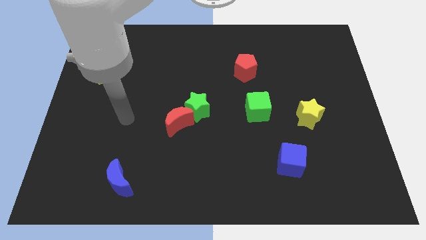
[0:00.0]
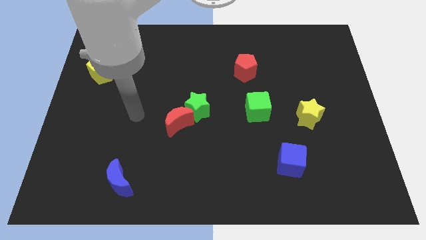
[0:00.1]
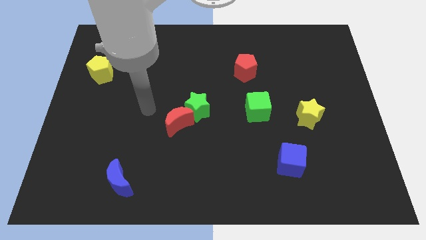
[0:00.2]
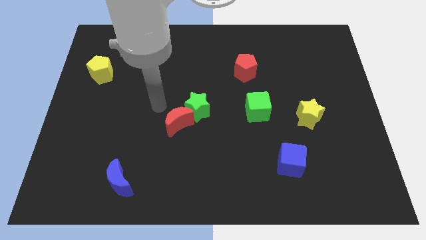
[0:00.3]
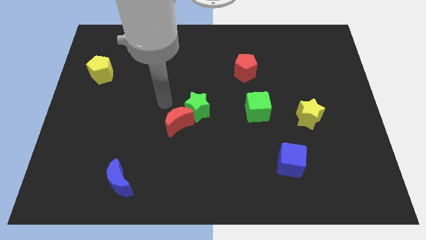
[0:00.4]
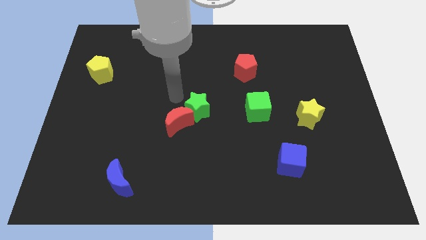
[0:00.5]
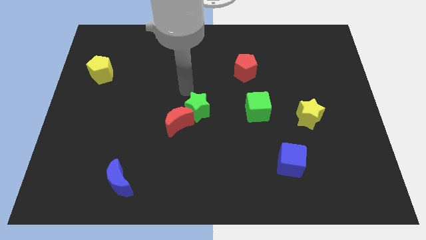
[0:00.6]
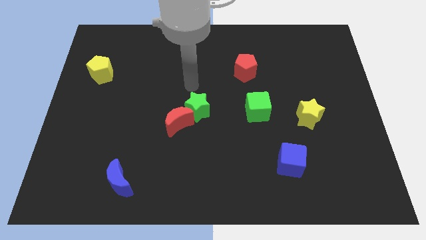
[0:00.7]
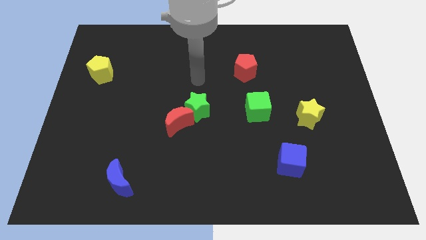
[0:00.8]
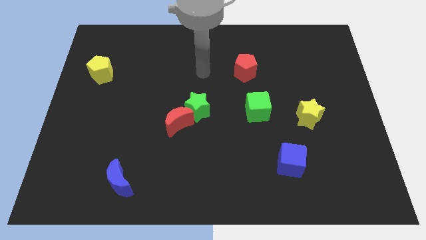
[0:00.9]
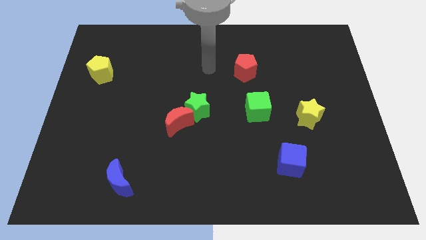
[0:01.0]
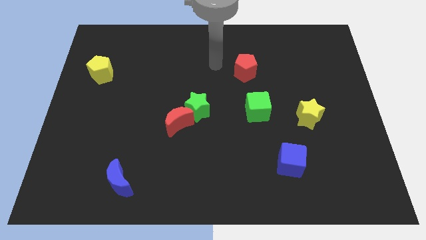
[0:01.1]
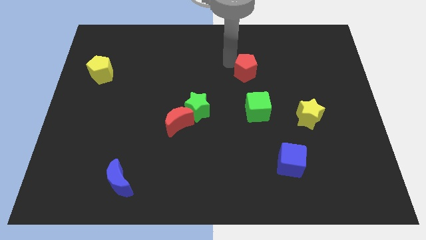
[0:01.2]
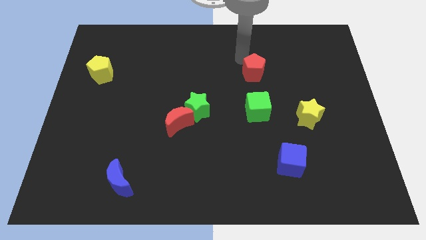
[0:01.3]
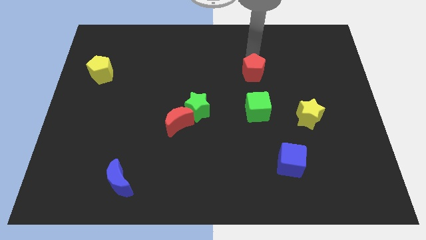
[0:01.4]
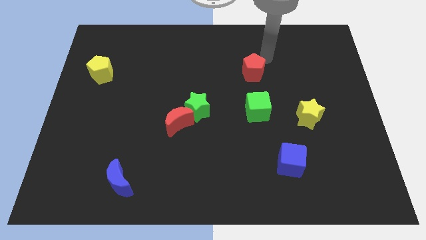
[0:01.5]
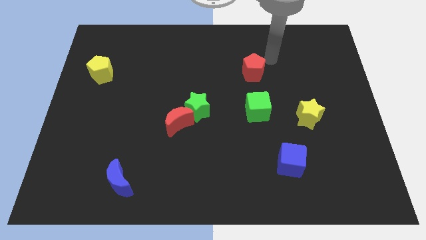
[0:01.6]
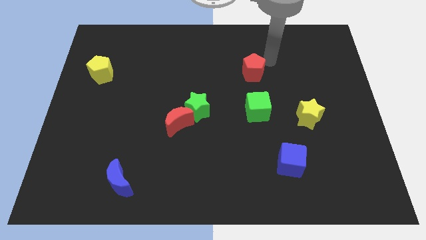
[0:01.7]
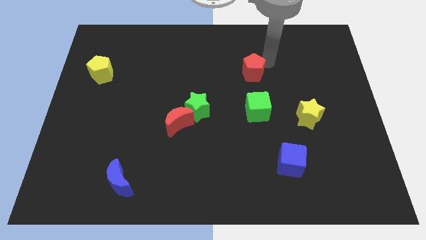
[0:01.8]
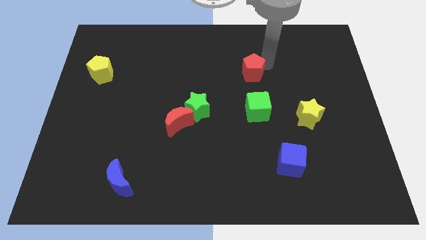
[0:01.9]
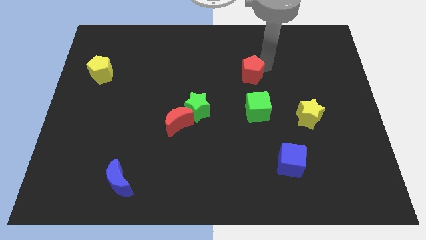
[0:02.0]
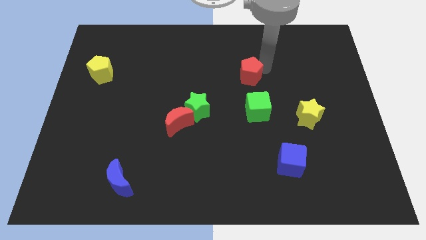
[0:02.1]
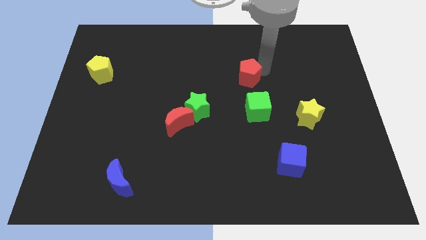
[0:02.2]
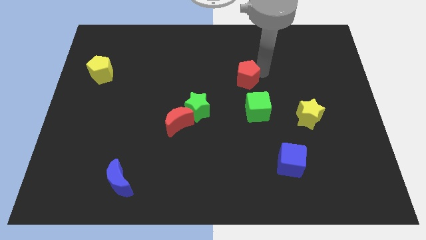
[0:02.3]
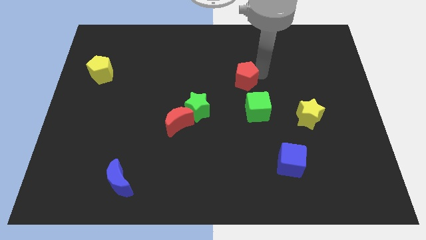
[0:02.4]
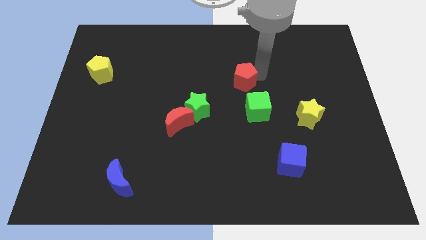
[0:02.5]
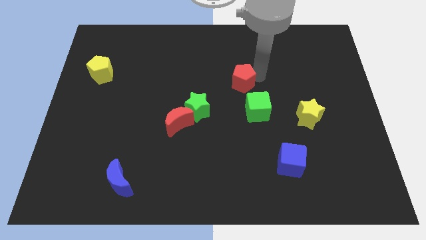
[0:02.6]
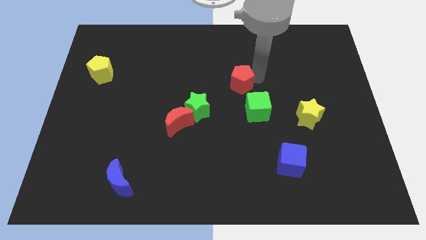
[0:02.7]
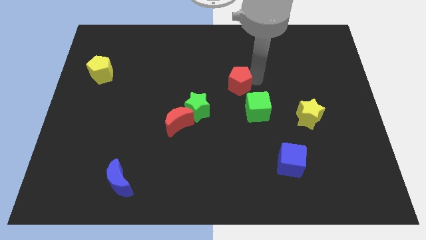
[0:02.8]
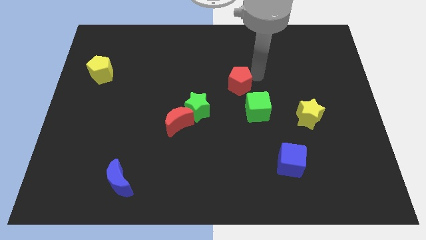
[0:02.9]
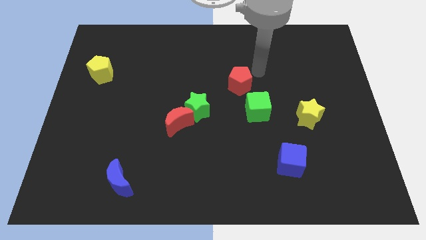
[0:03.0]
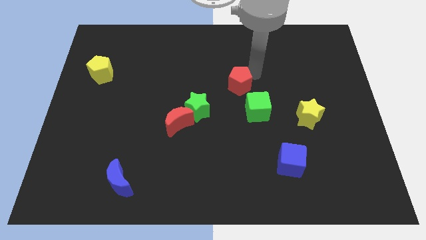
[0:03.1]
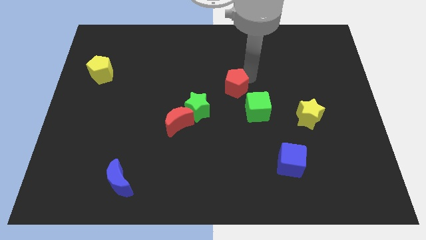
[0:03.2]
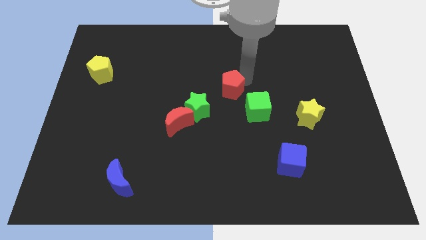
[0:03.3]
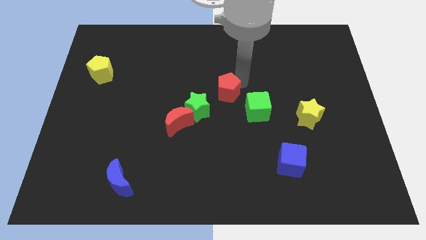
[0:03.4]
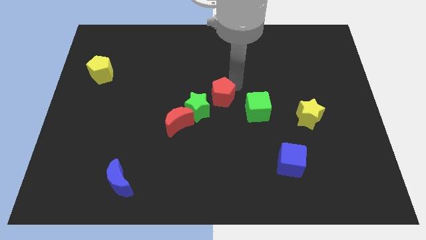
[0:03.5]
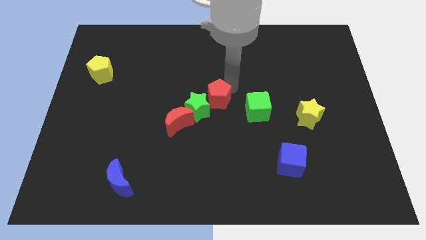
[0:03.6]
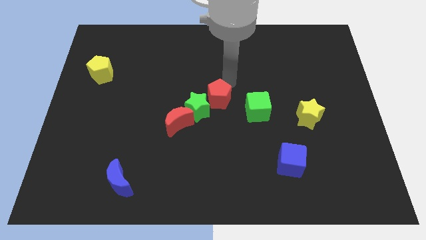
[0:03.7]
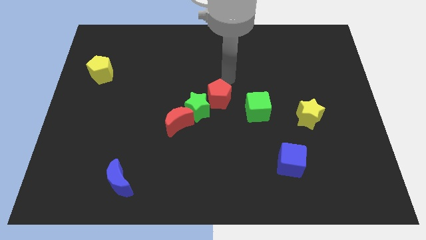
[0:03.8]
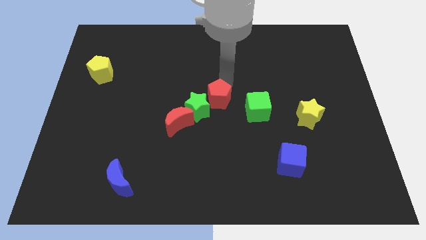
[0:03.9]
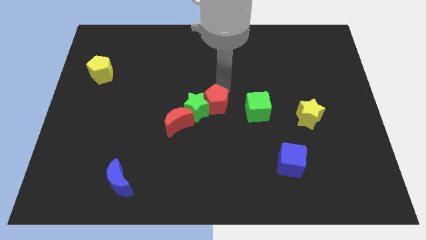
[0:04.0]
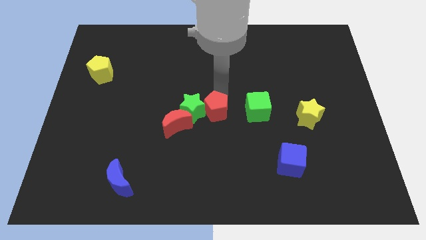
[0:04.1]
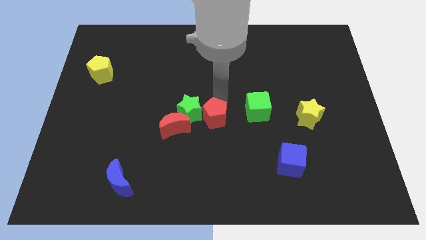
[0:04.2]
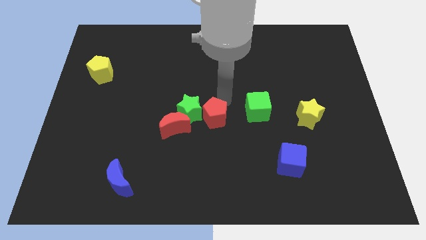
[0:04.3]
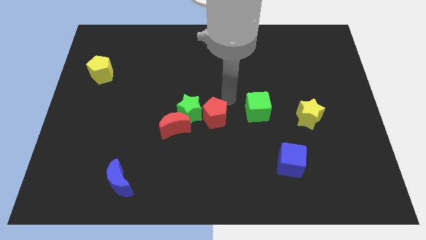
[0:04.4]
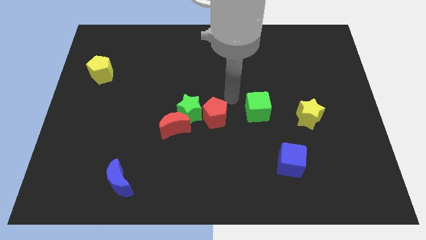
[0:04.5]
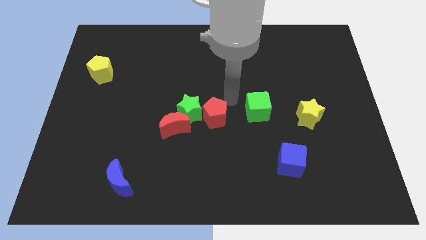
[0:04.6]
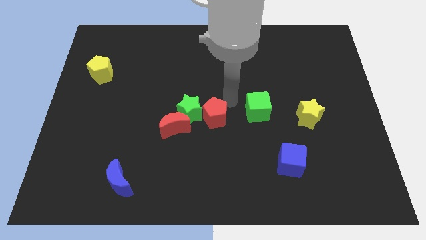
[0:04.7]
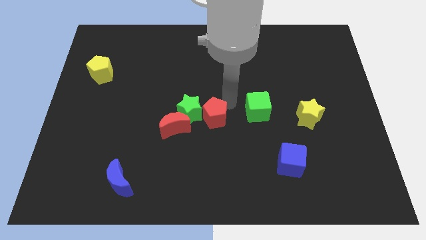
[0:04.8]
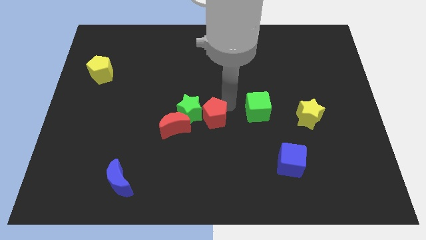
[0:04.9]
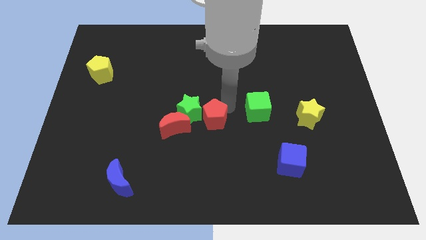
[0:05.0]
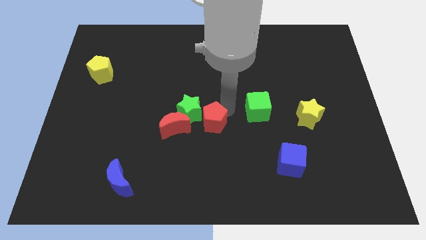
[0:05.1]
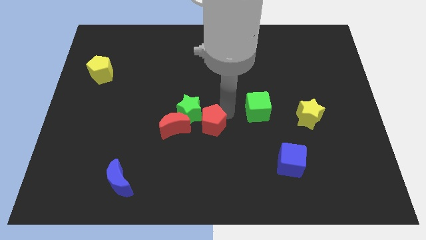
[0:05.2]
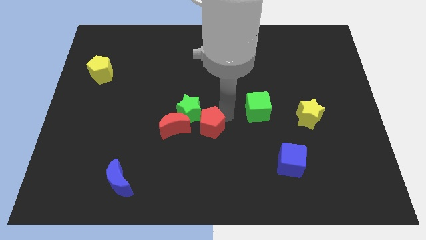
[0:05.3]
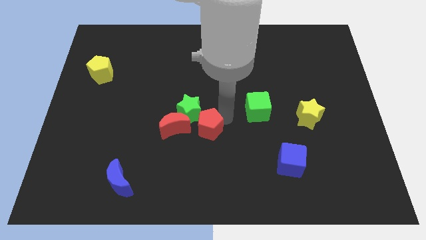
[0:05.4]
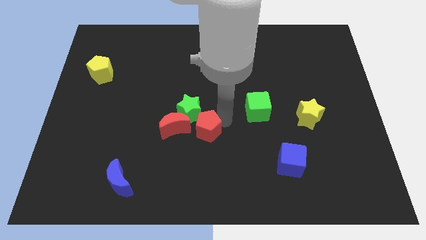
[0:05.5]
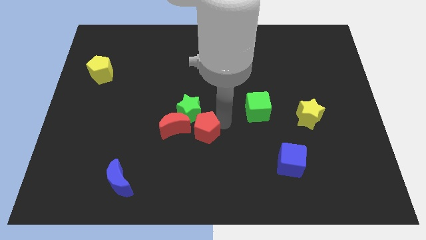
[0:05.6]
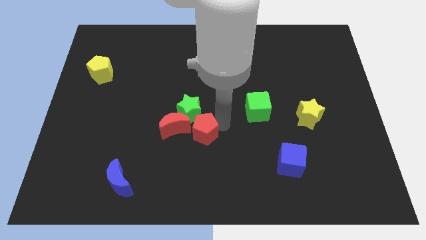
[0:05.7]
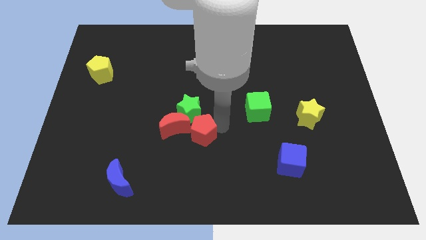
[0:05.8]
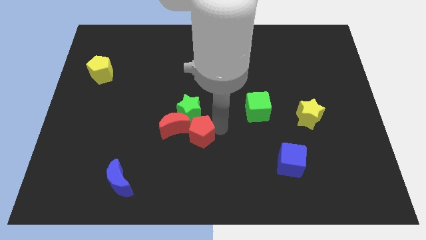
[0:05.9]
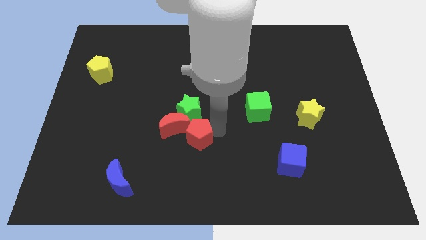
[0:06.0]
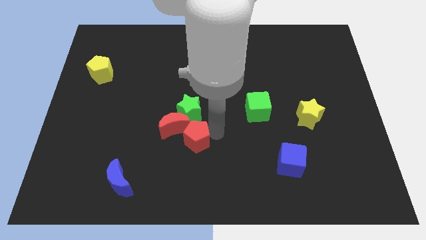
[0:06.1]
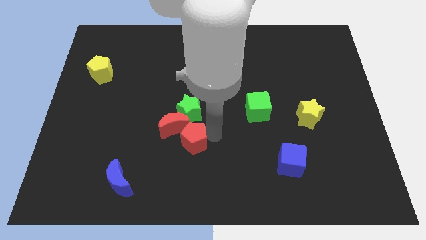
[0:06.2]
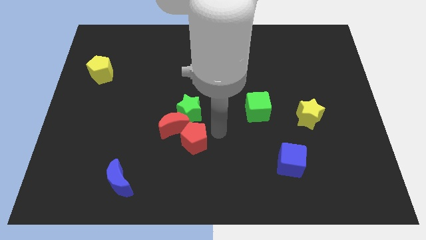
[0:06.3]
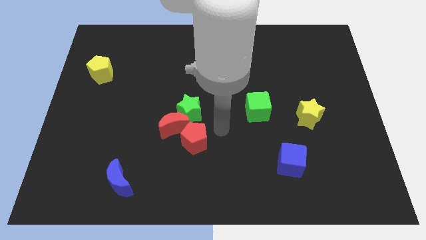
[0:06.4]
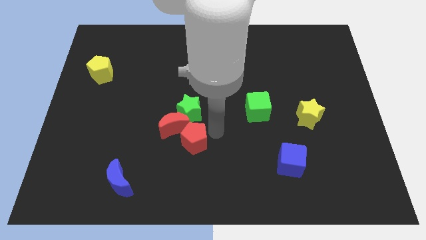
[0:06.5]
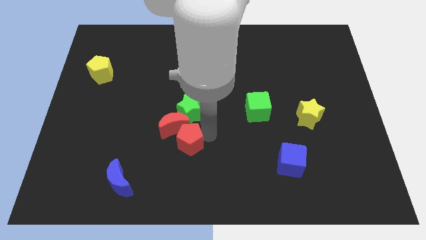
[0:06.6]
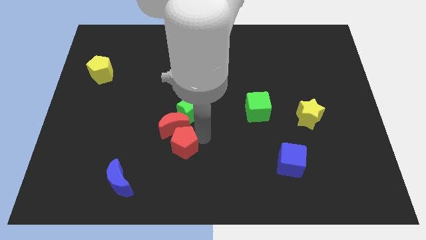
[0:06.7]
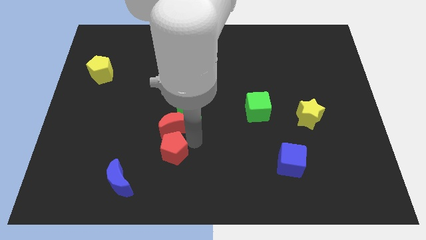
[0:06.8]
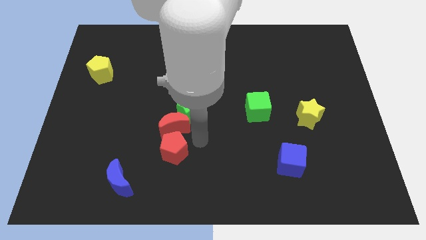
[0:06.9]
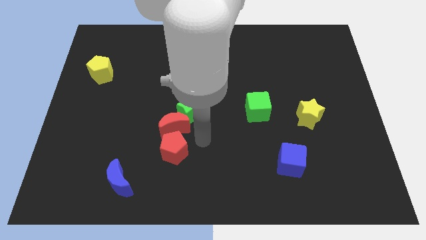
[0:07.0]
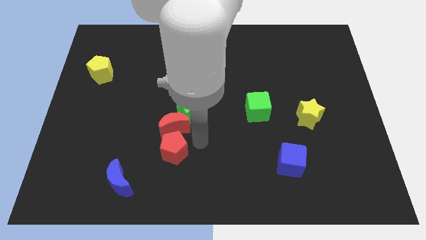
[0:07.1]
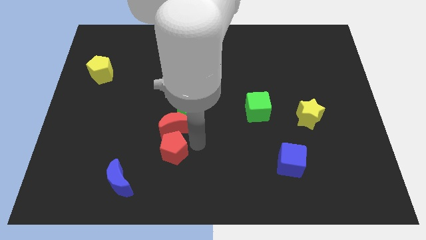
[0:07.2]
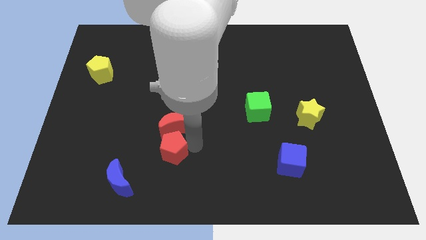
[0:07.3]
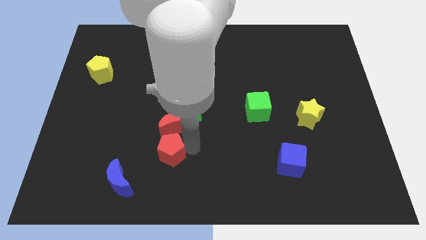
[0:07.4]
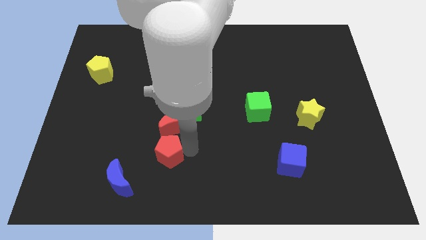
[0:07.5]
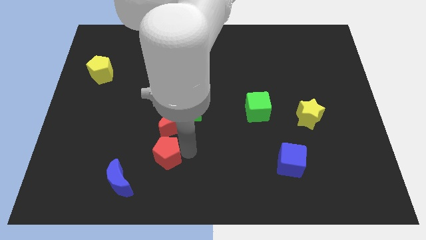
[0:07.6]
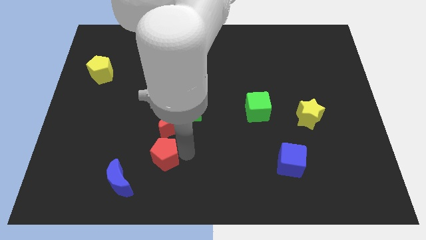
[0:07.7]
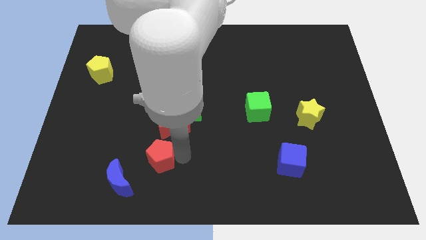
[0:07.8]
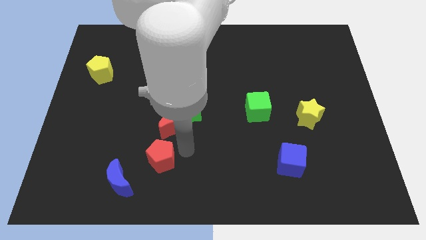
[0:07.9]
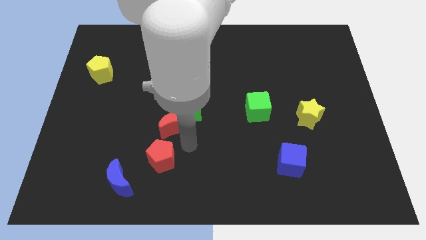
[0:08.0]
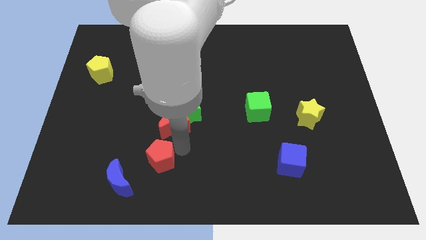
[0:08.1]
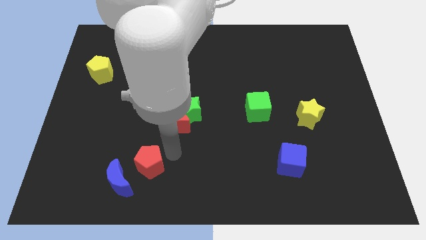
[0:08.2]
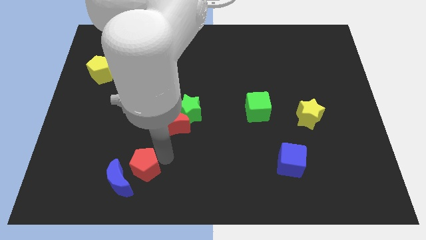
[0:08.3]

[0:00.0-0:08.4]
slide the red pentagon to the blue moon
